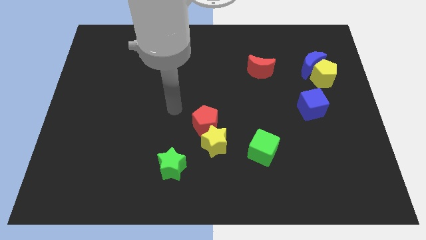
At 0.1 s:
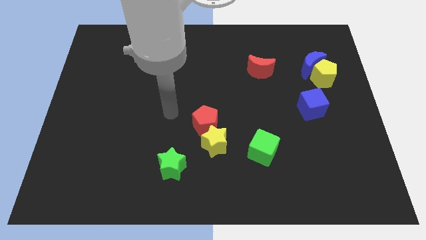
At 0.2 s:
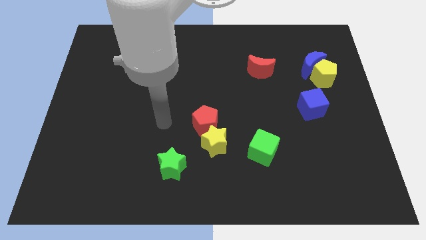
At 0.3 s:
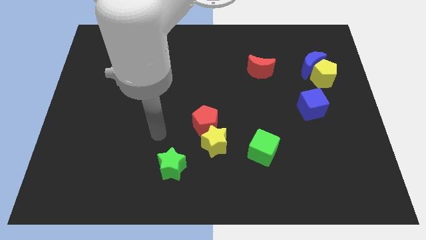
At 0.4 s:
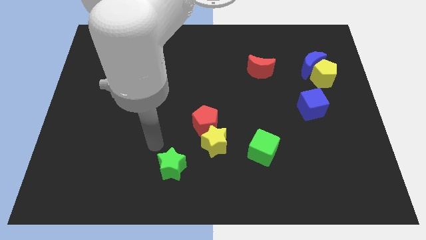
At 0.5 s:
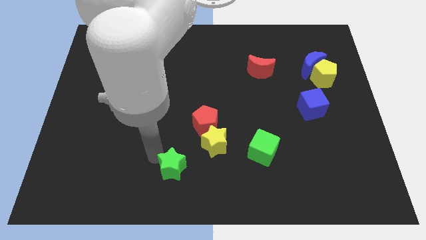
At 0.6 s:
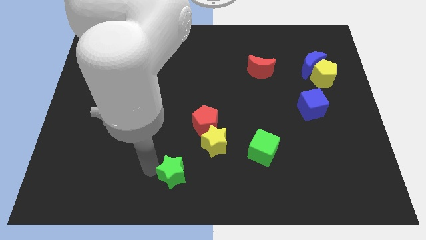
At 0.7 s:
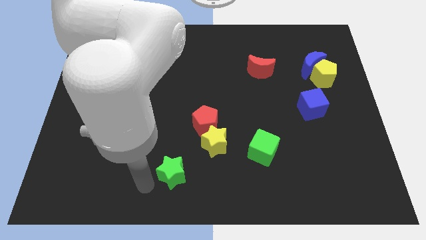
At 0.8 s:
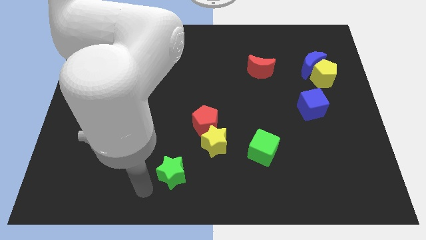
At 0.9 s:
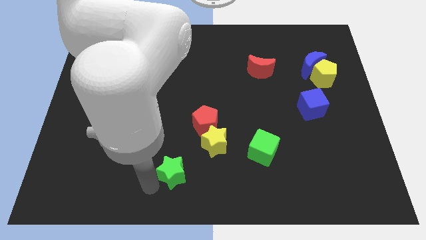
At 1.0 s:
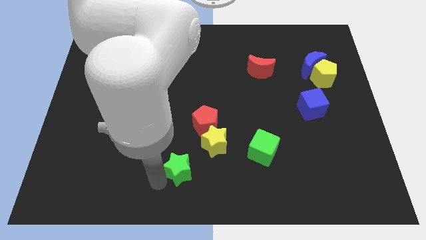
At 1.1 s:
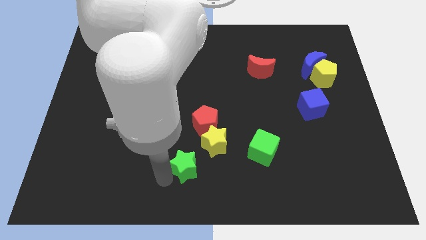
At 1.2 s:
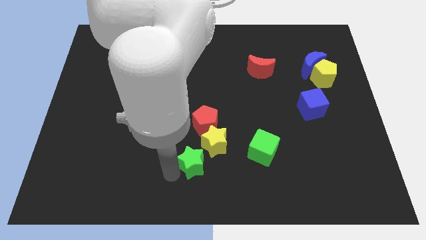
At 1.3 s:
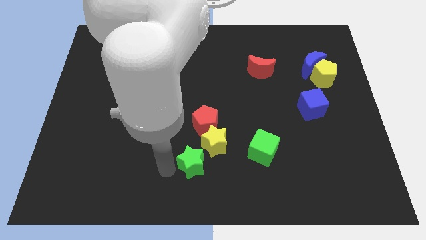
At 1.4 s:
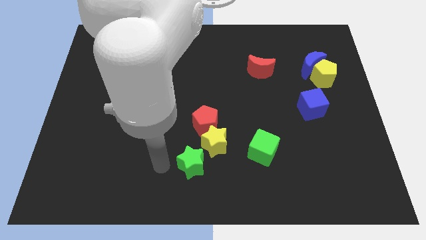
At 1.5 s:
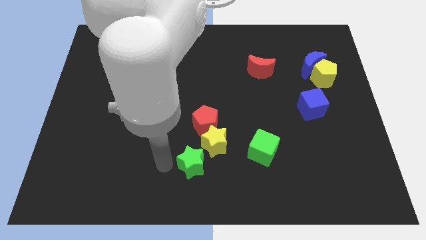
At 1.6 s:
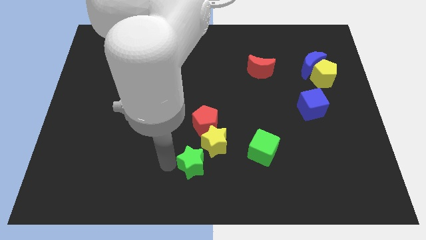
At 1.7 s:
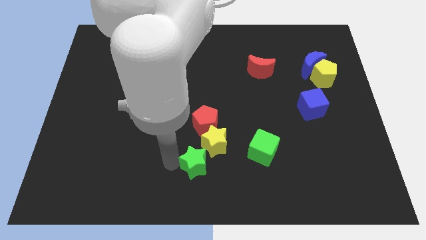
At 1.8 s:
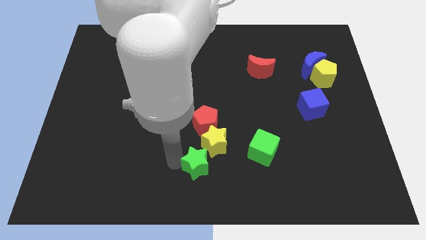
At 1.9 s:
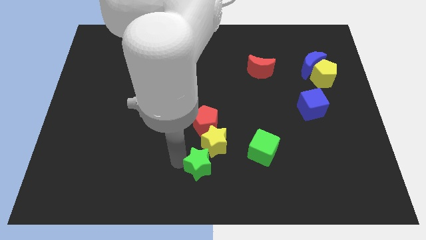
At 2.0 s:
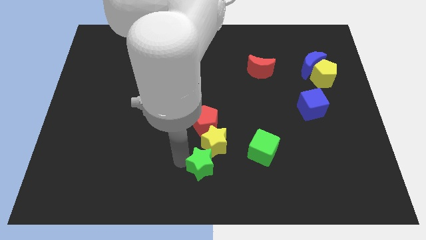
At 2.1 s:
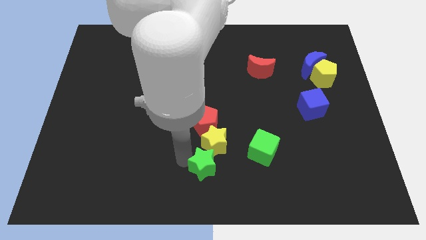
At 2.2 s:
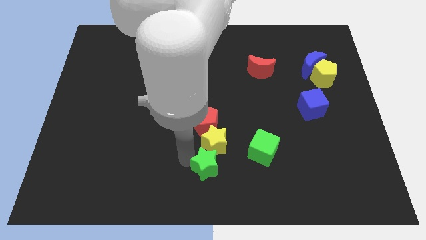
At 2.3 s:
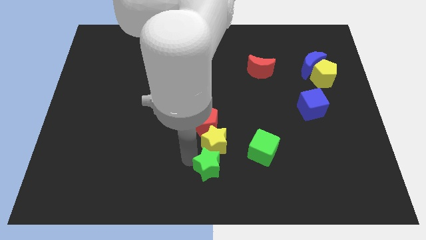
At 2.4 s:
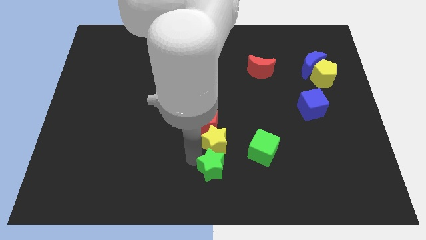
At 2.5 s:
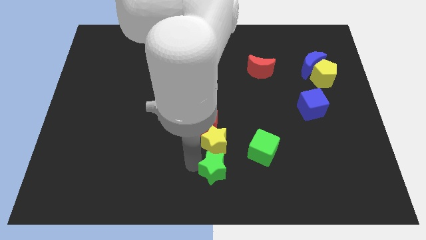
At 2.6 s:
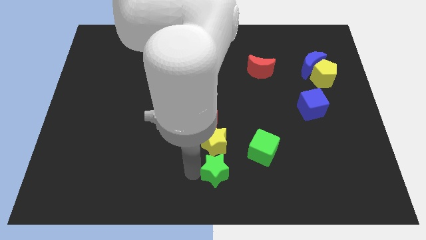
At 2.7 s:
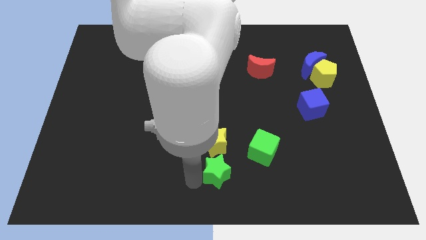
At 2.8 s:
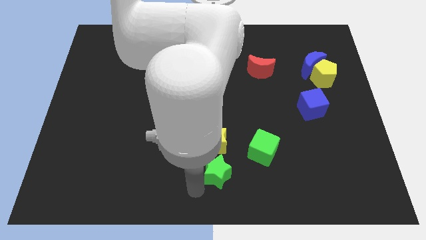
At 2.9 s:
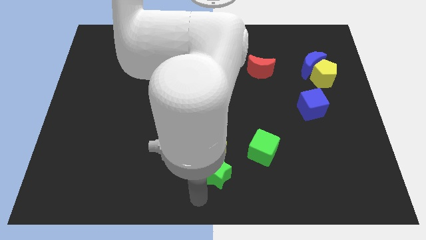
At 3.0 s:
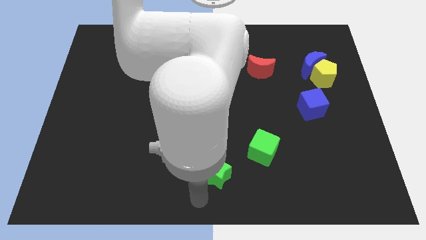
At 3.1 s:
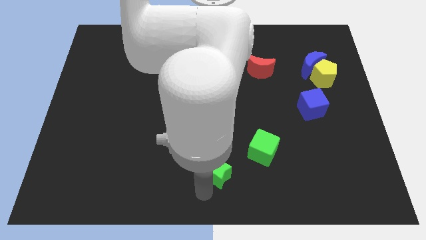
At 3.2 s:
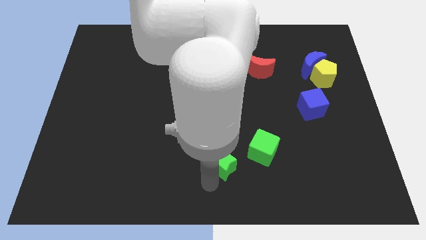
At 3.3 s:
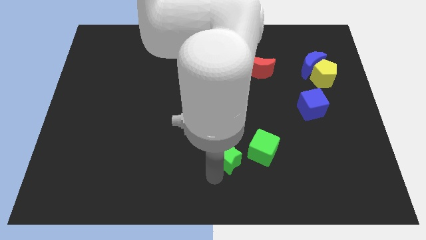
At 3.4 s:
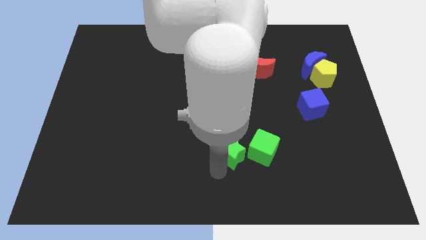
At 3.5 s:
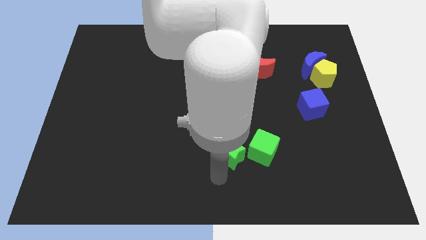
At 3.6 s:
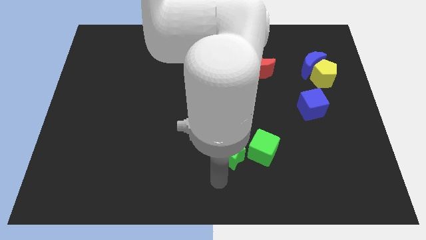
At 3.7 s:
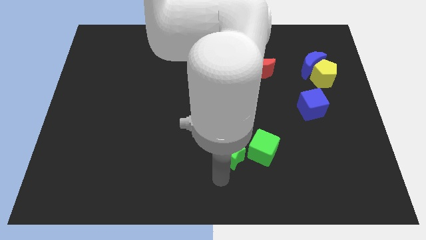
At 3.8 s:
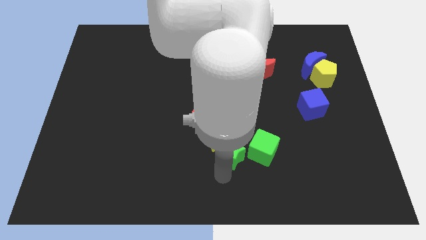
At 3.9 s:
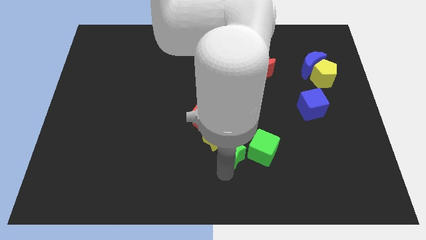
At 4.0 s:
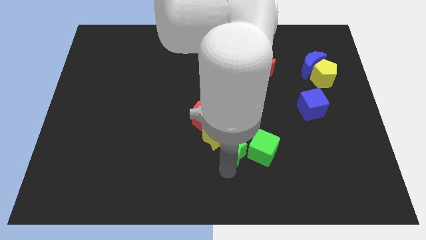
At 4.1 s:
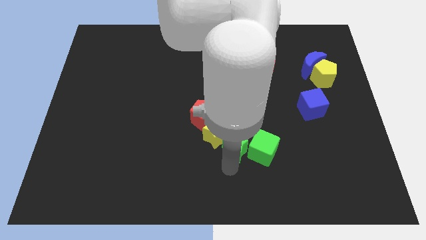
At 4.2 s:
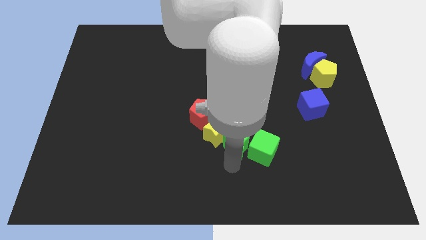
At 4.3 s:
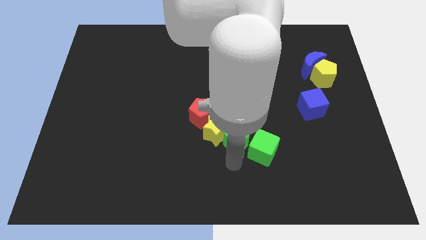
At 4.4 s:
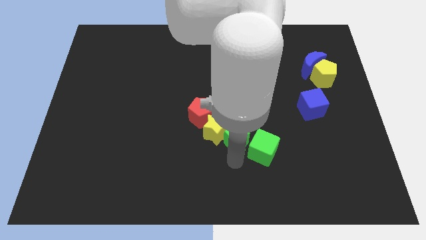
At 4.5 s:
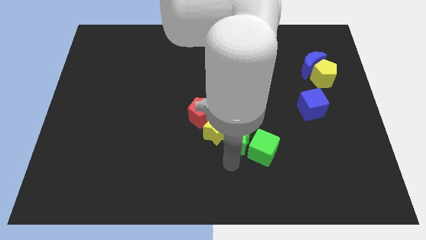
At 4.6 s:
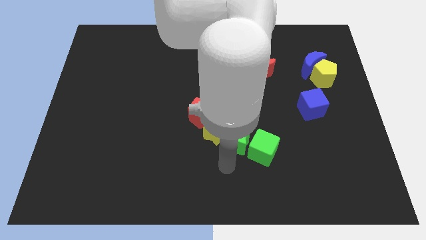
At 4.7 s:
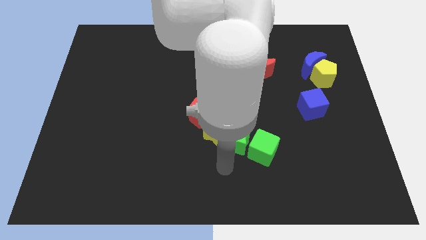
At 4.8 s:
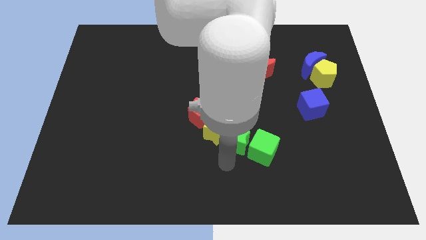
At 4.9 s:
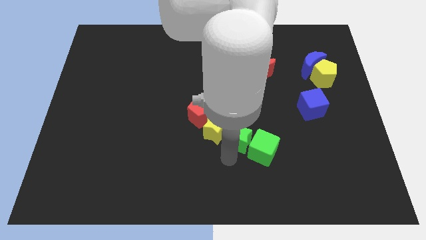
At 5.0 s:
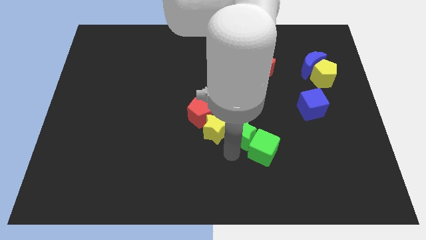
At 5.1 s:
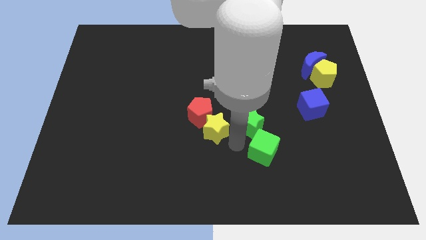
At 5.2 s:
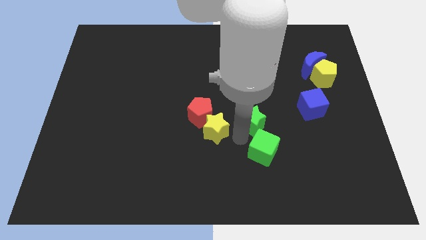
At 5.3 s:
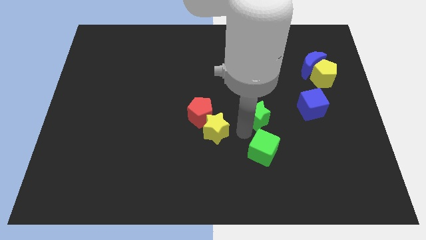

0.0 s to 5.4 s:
push the green star left of the blue cube

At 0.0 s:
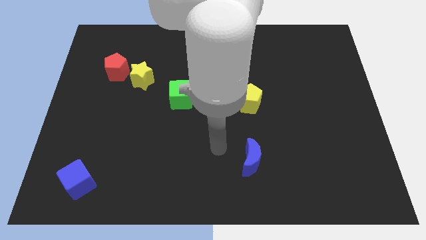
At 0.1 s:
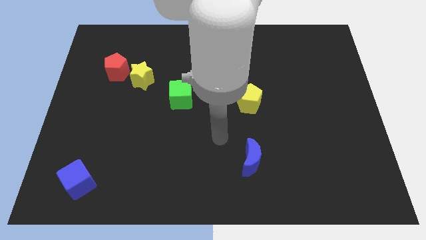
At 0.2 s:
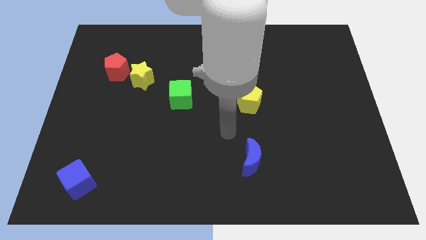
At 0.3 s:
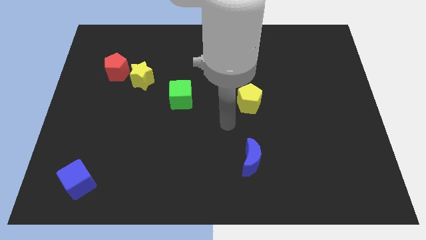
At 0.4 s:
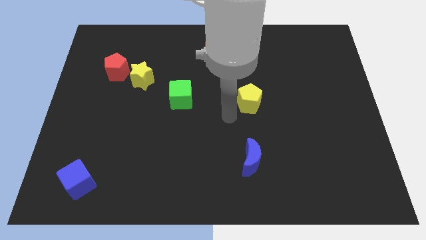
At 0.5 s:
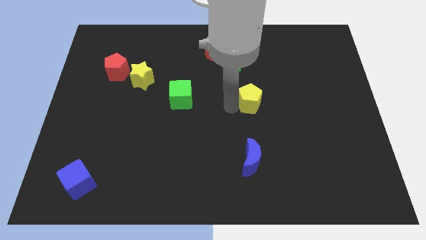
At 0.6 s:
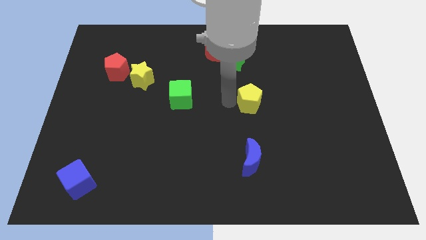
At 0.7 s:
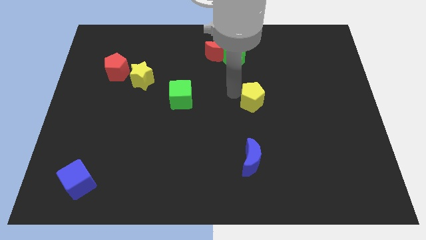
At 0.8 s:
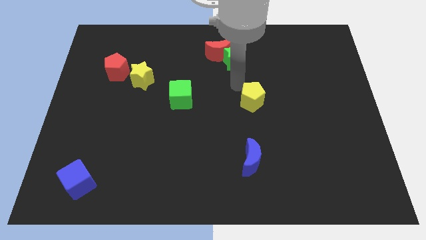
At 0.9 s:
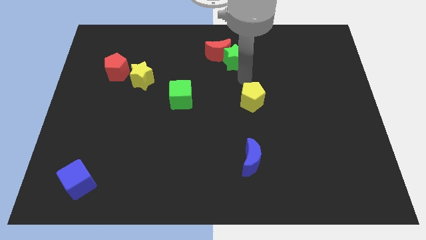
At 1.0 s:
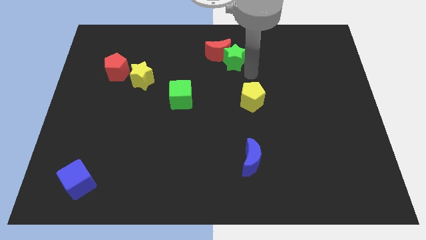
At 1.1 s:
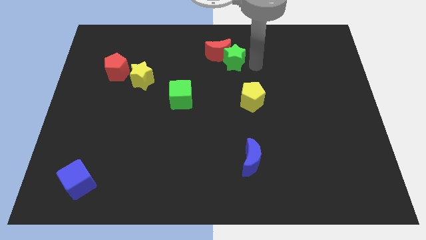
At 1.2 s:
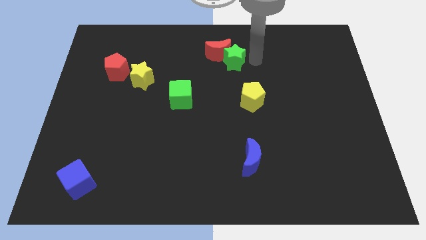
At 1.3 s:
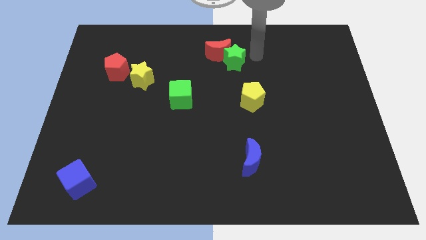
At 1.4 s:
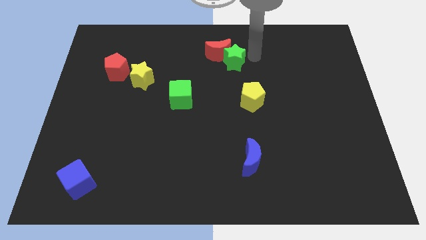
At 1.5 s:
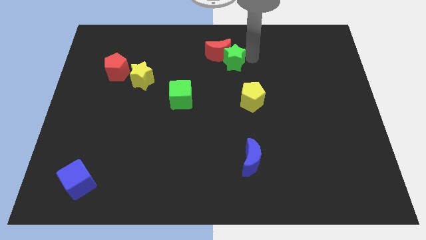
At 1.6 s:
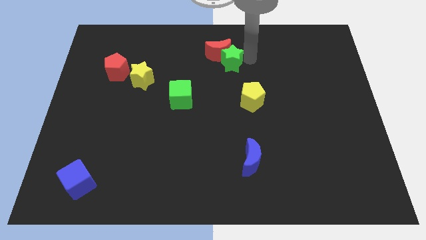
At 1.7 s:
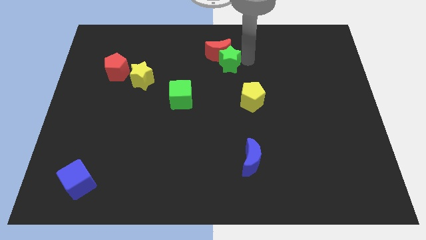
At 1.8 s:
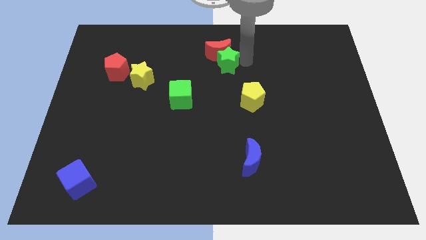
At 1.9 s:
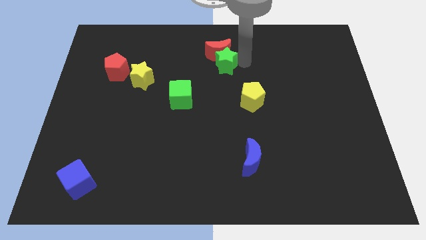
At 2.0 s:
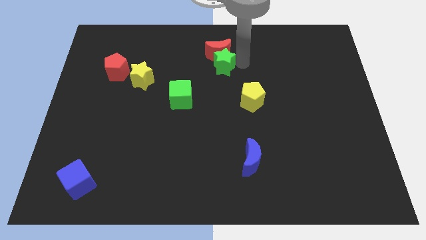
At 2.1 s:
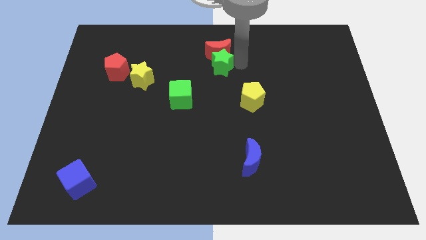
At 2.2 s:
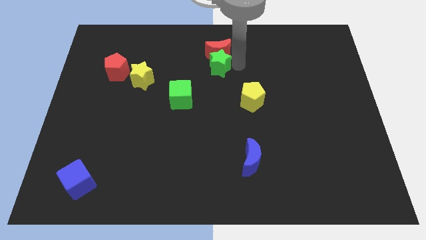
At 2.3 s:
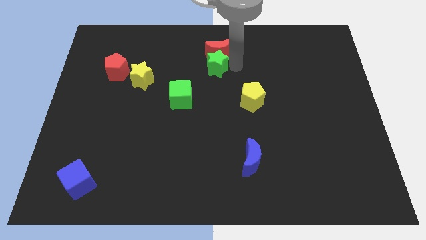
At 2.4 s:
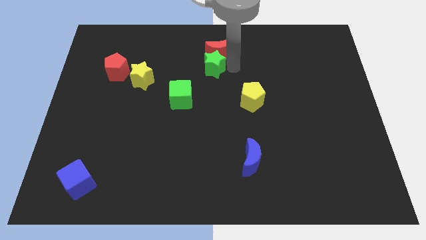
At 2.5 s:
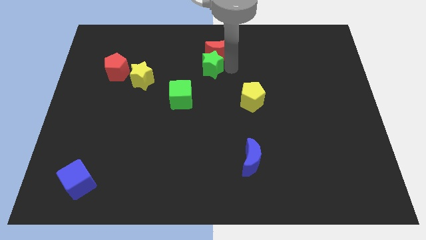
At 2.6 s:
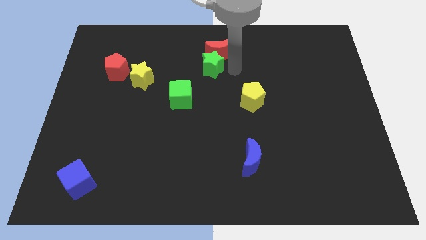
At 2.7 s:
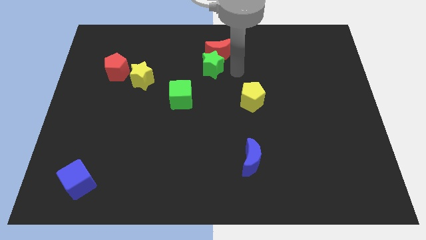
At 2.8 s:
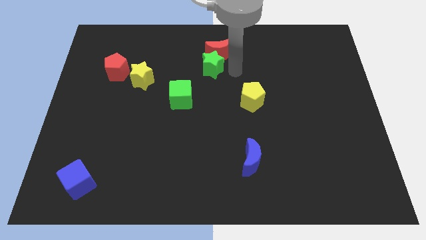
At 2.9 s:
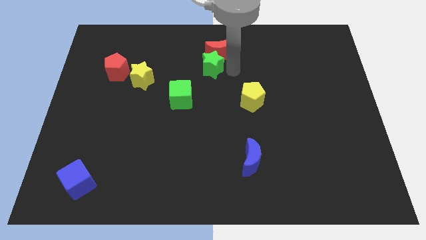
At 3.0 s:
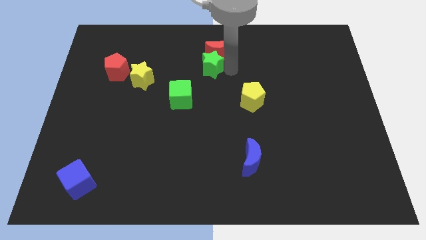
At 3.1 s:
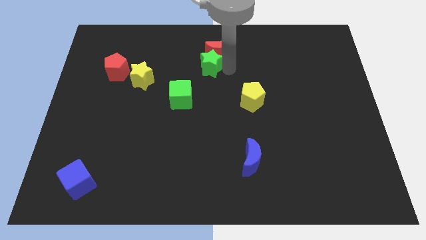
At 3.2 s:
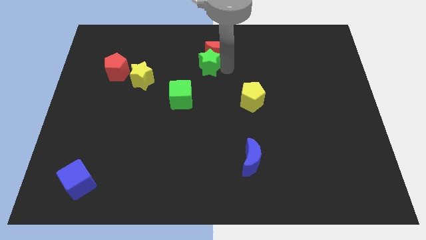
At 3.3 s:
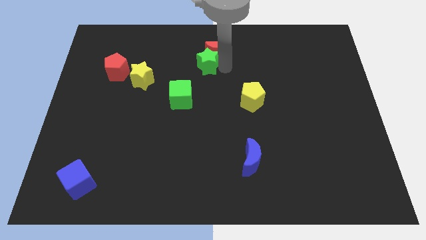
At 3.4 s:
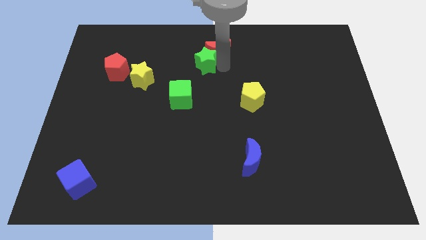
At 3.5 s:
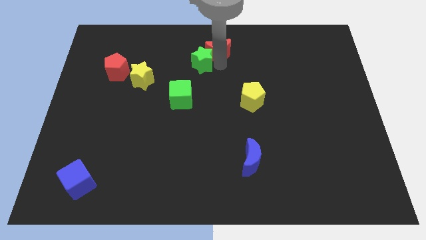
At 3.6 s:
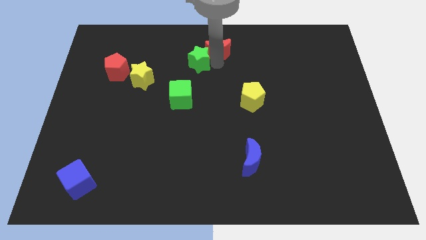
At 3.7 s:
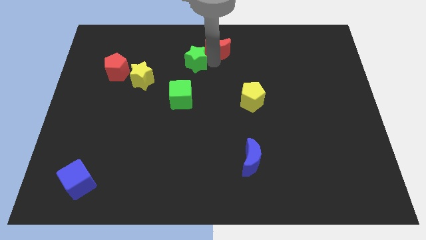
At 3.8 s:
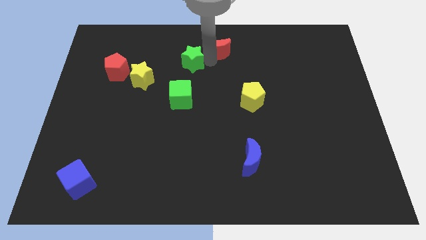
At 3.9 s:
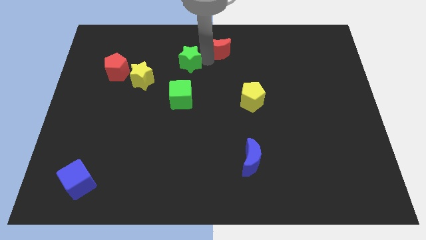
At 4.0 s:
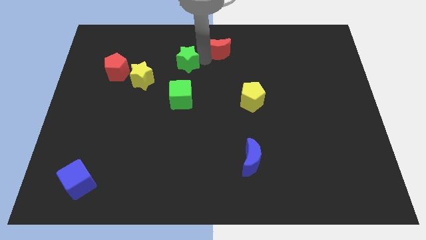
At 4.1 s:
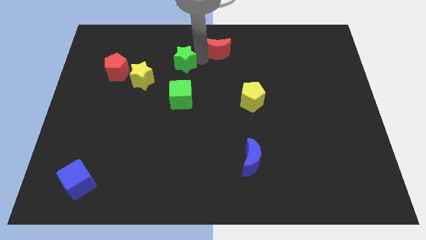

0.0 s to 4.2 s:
push the green star to the top right side of the yellow star
